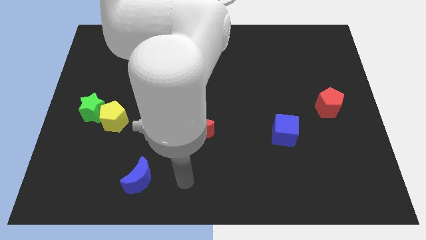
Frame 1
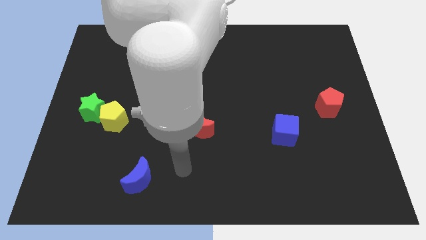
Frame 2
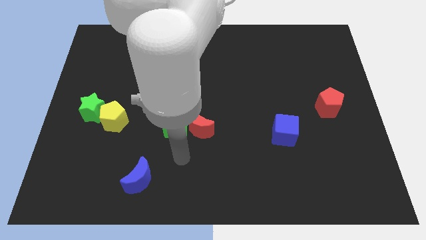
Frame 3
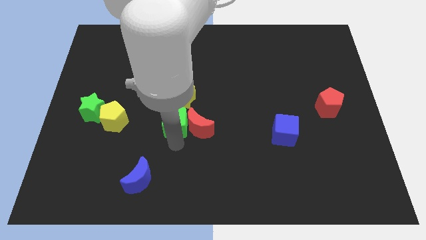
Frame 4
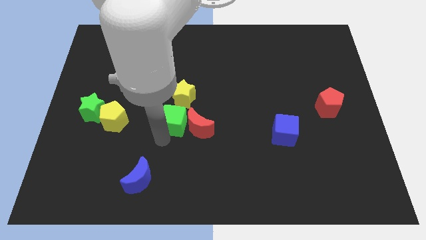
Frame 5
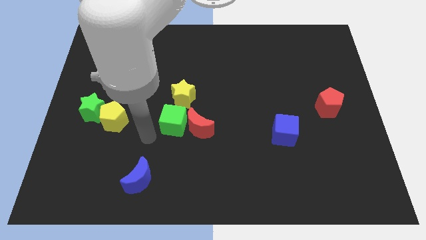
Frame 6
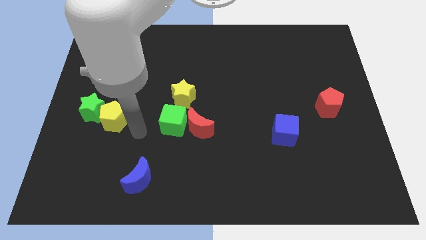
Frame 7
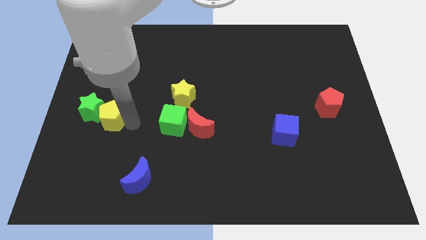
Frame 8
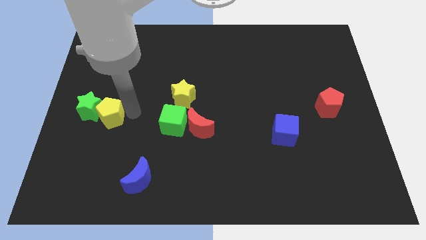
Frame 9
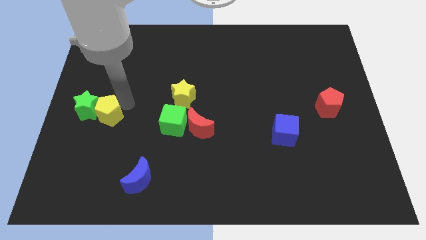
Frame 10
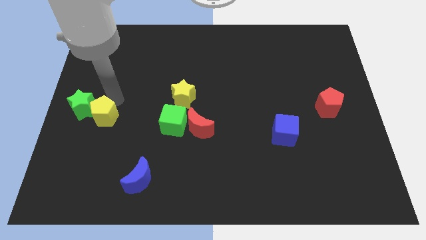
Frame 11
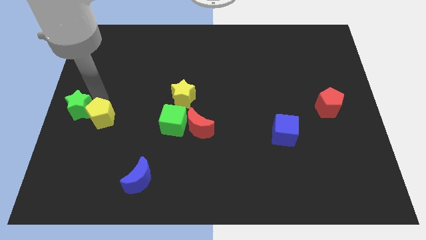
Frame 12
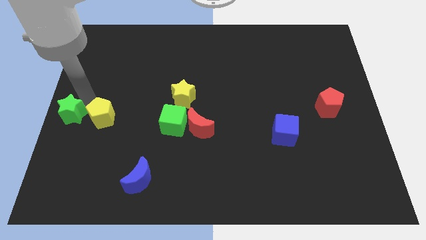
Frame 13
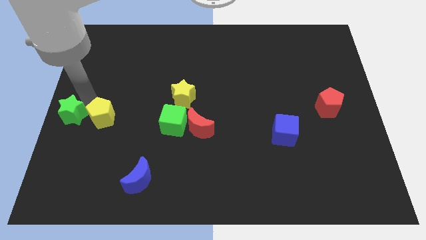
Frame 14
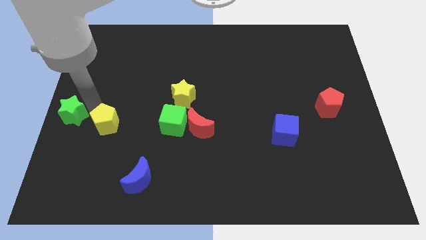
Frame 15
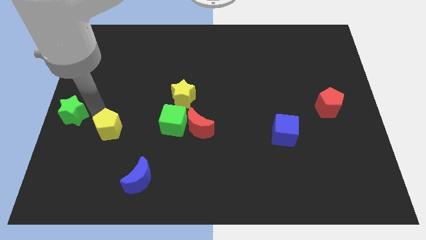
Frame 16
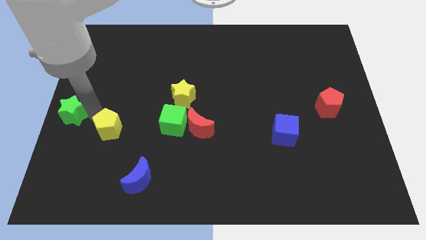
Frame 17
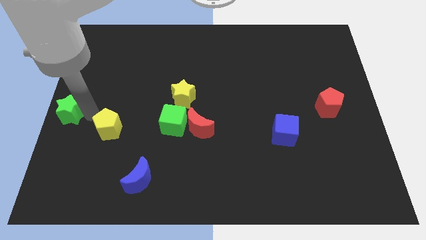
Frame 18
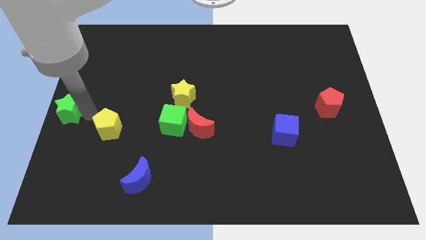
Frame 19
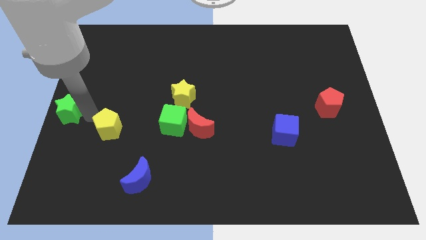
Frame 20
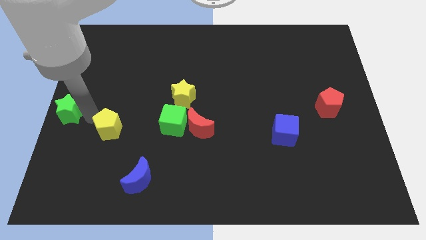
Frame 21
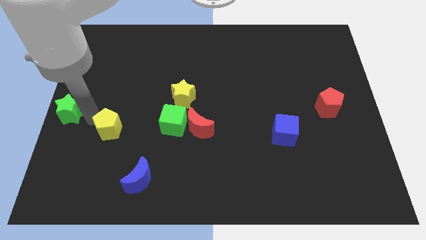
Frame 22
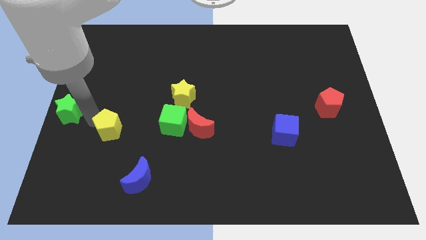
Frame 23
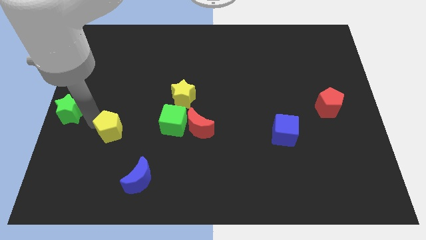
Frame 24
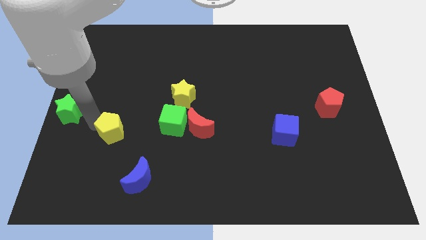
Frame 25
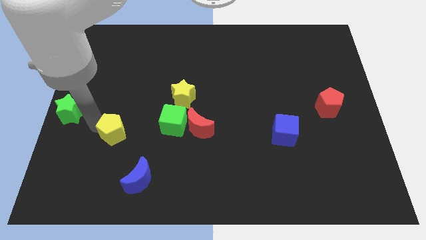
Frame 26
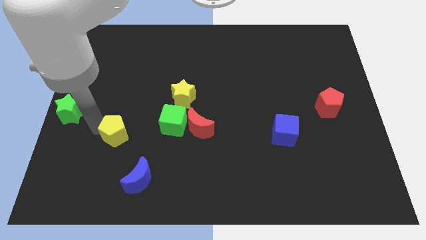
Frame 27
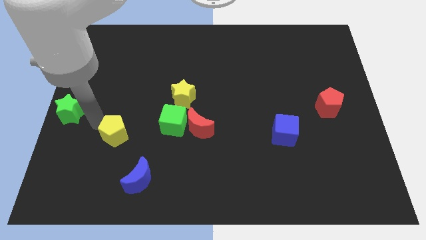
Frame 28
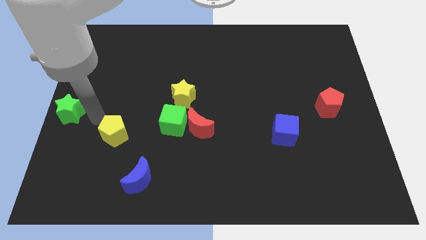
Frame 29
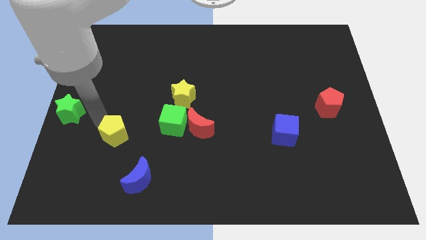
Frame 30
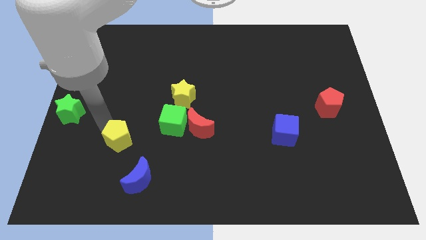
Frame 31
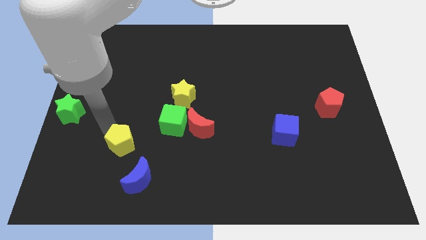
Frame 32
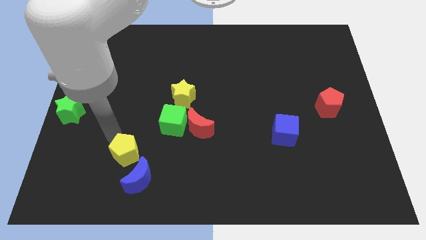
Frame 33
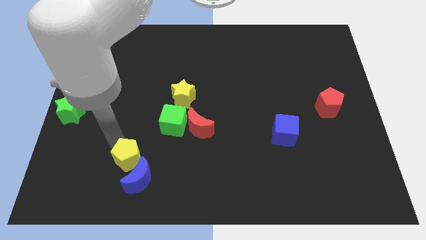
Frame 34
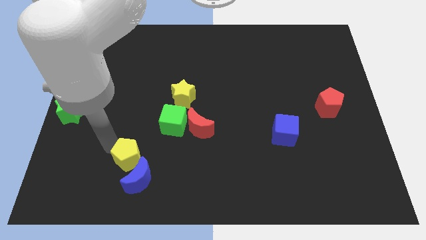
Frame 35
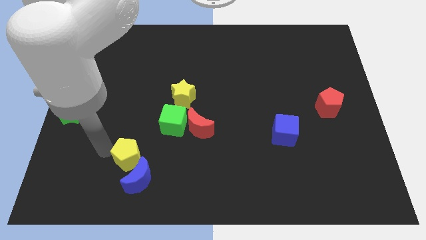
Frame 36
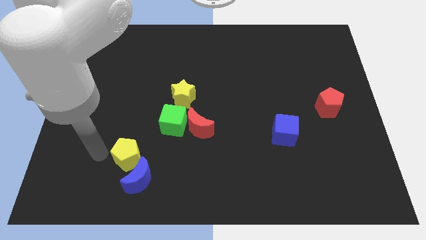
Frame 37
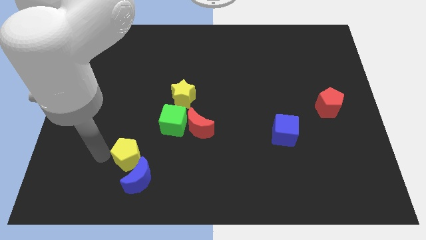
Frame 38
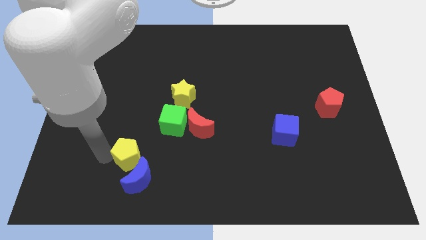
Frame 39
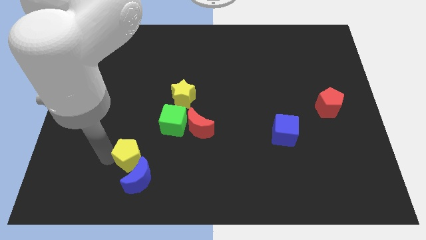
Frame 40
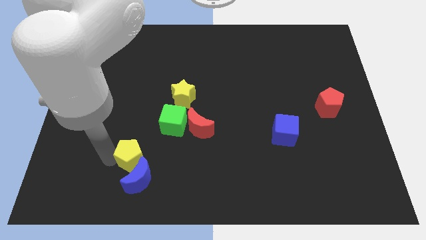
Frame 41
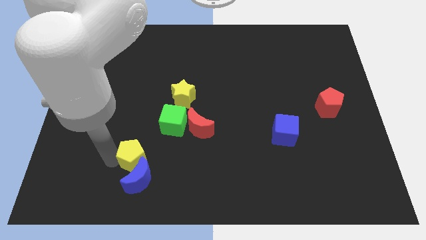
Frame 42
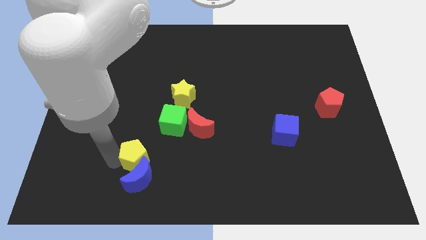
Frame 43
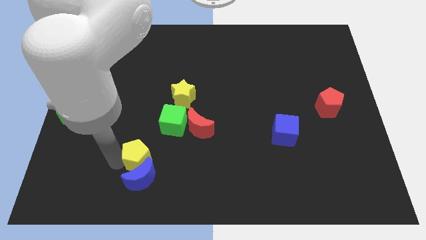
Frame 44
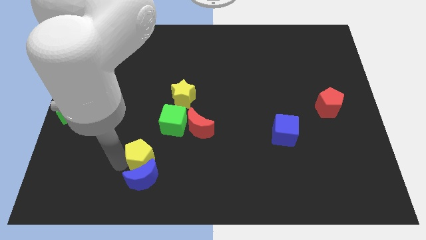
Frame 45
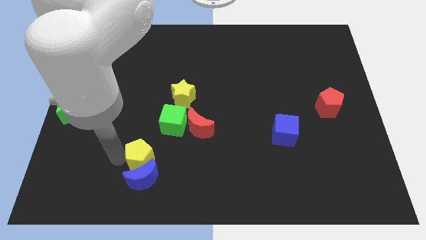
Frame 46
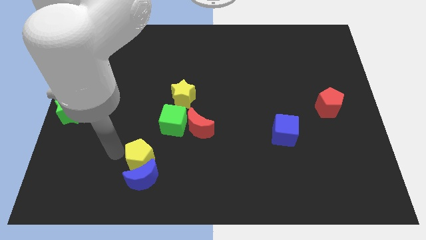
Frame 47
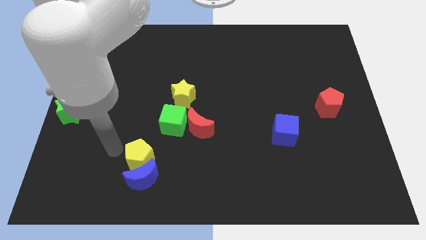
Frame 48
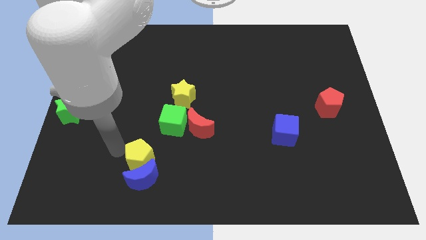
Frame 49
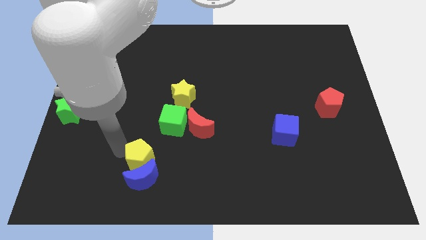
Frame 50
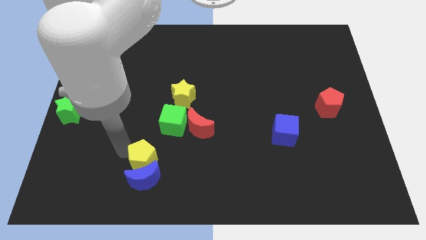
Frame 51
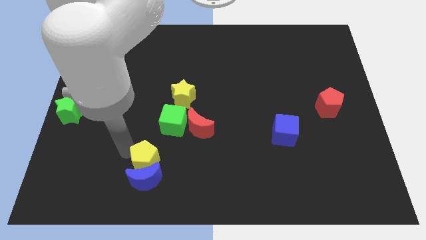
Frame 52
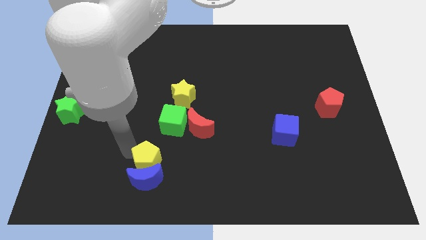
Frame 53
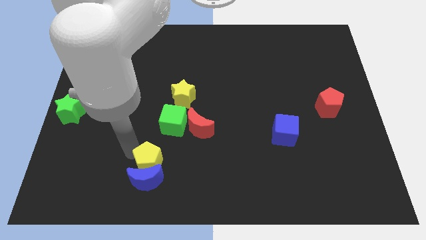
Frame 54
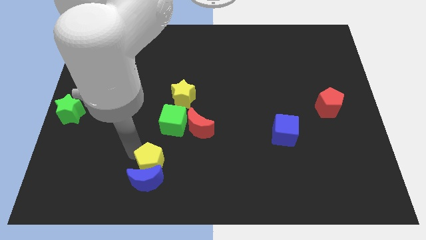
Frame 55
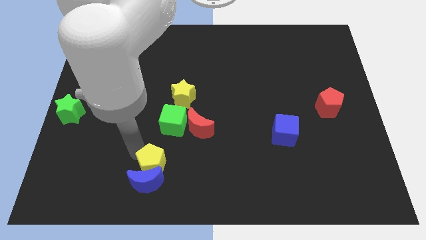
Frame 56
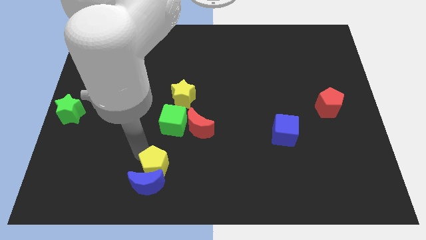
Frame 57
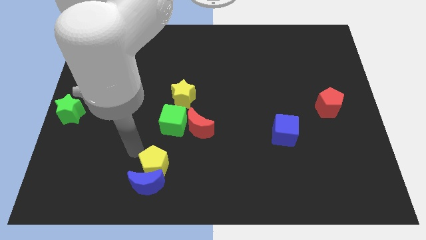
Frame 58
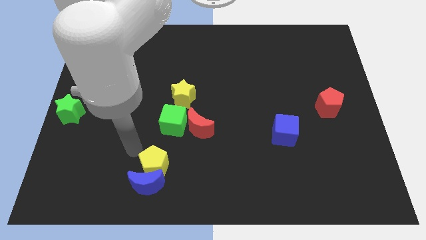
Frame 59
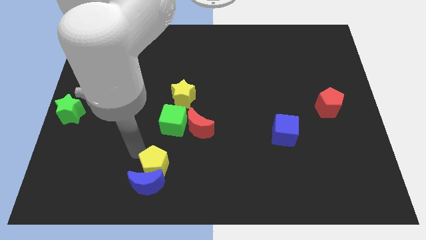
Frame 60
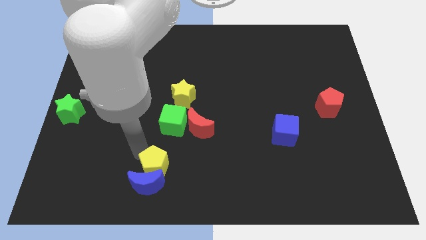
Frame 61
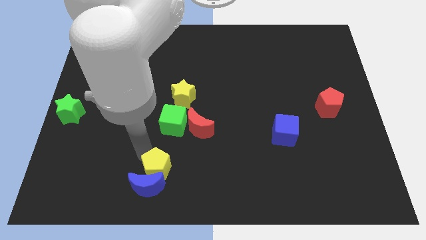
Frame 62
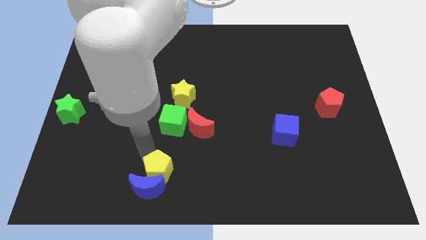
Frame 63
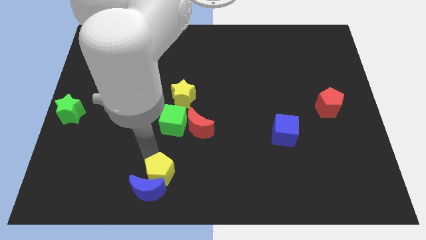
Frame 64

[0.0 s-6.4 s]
move the yellow pentagon to the bottom side
